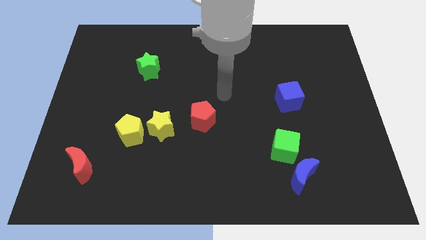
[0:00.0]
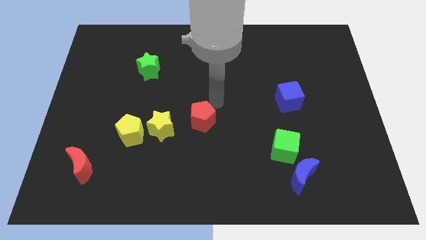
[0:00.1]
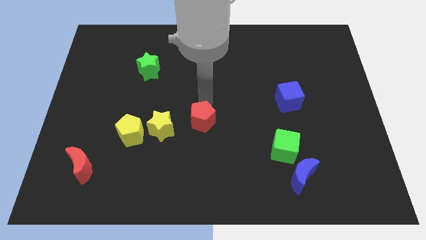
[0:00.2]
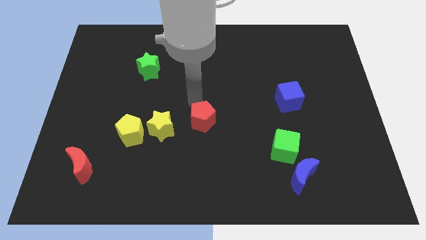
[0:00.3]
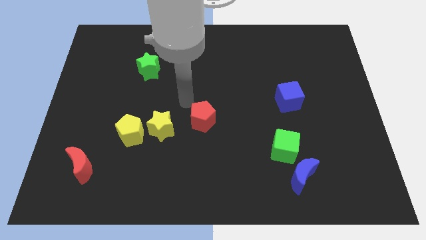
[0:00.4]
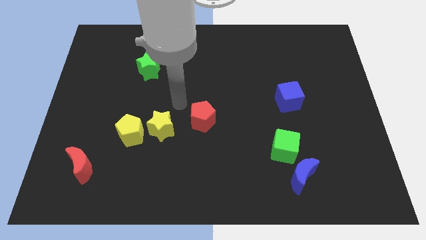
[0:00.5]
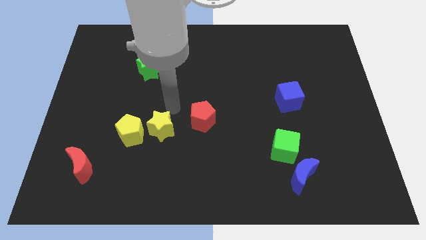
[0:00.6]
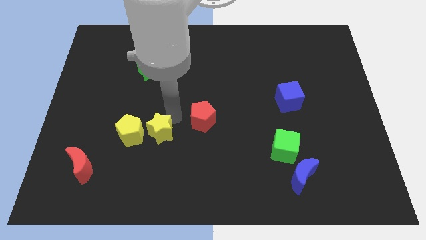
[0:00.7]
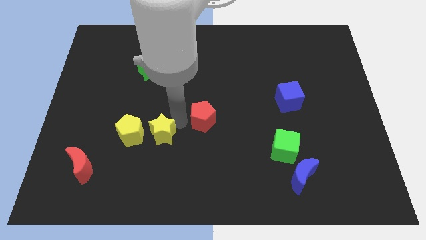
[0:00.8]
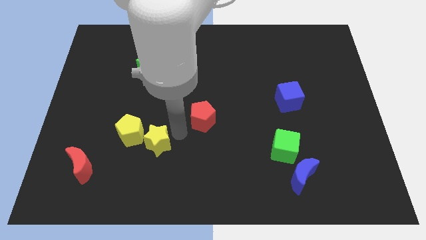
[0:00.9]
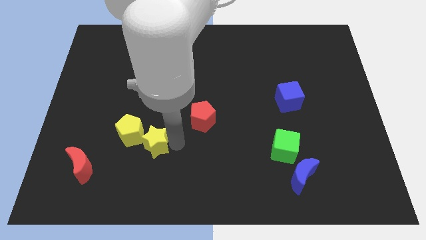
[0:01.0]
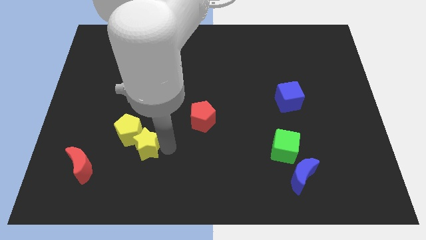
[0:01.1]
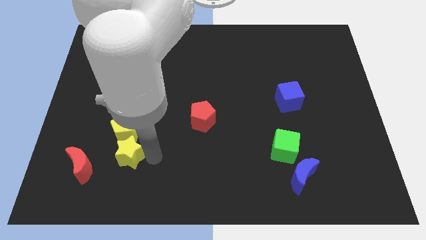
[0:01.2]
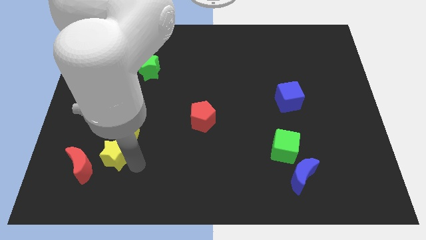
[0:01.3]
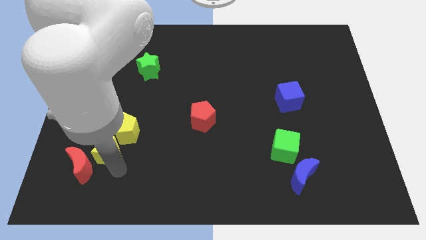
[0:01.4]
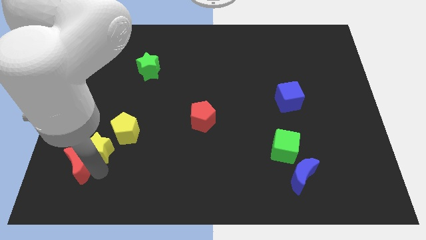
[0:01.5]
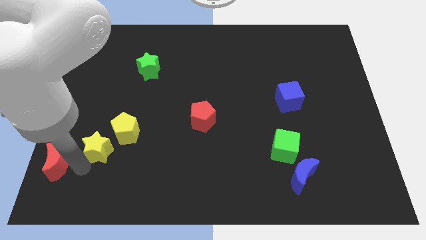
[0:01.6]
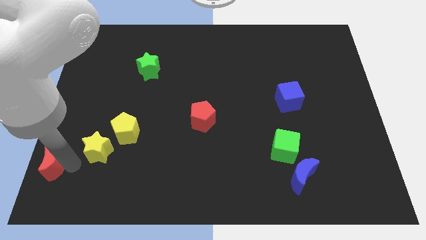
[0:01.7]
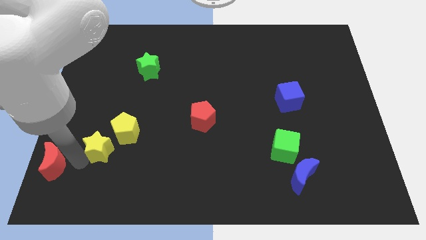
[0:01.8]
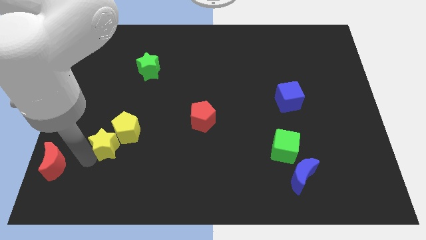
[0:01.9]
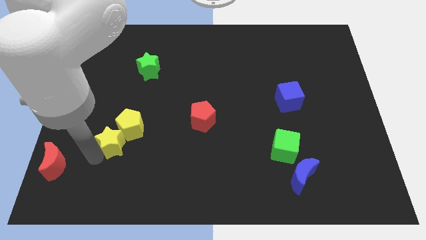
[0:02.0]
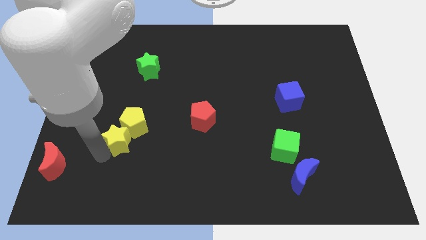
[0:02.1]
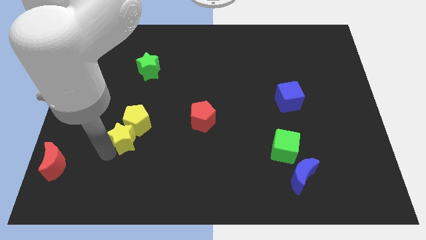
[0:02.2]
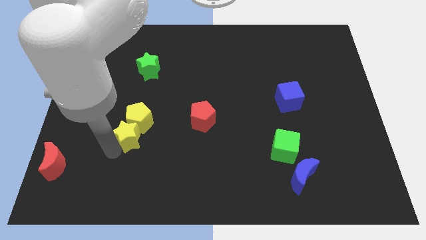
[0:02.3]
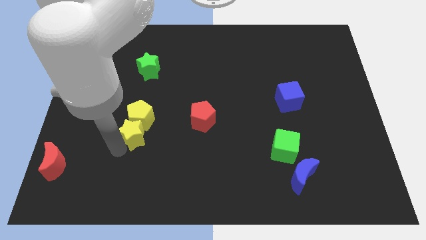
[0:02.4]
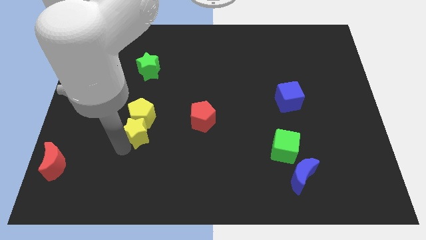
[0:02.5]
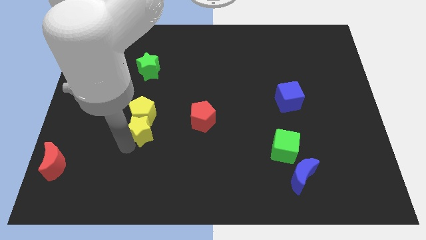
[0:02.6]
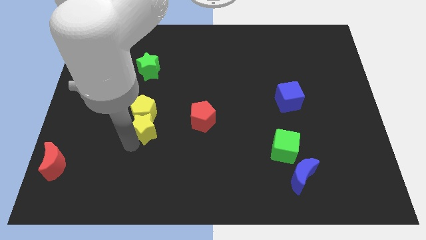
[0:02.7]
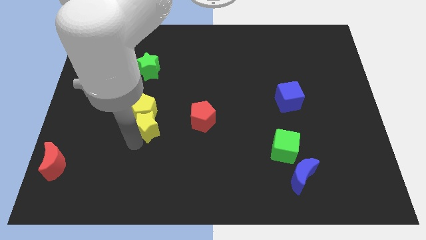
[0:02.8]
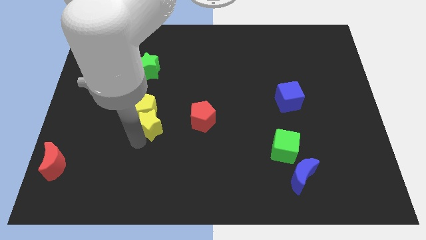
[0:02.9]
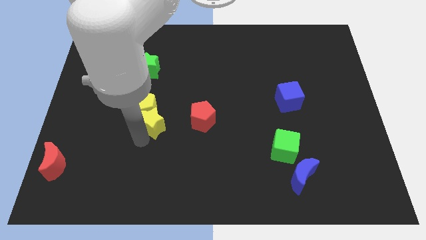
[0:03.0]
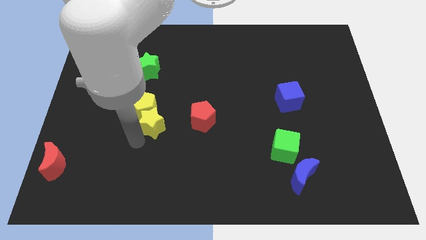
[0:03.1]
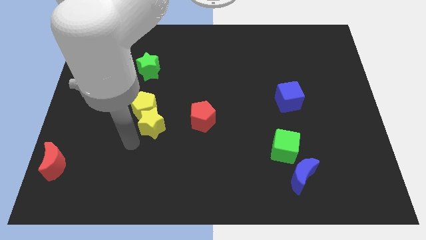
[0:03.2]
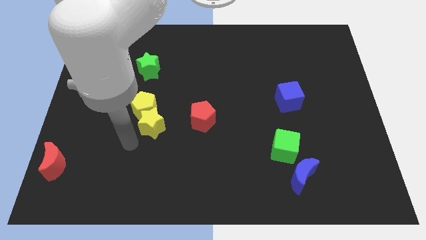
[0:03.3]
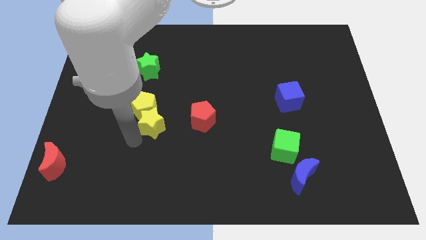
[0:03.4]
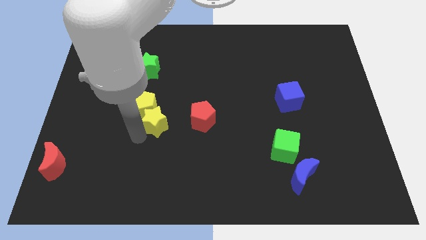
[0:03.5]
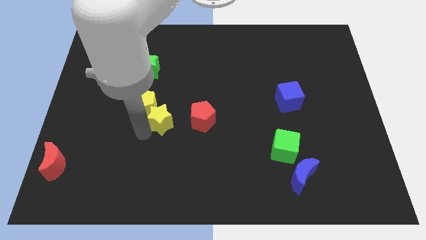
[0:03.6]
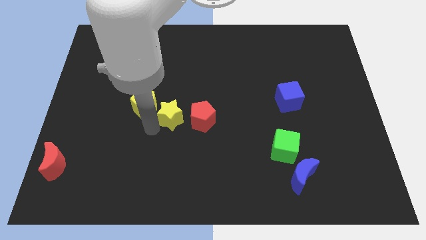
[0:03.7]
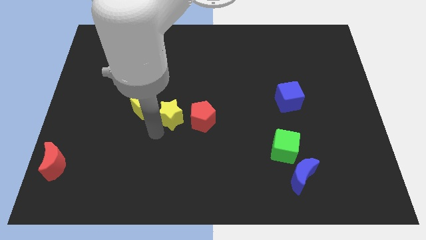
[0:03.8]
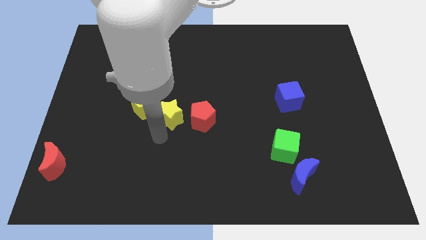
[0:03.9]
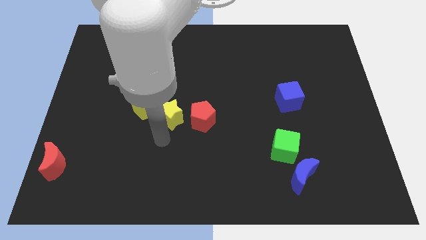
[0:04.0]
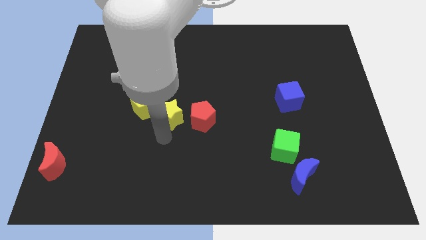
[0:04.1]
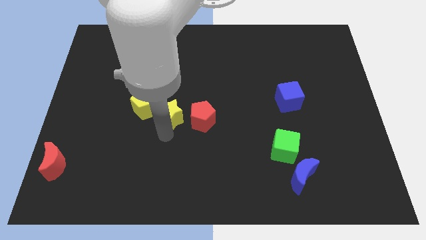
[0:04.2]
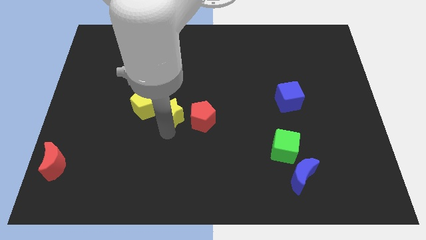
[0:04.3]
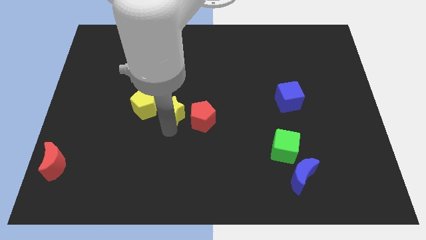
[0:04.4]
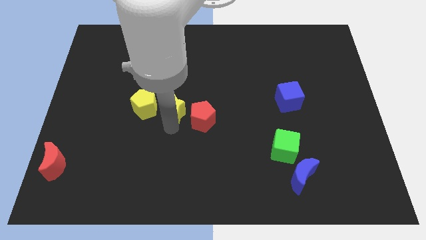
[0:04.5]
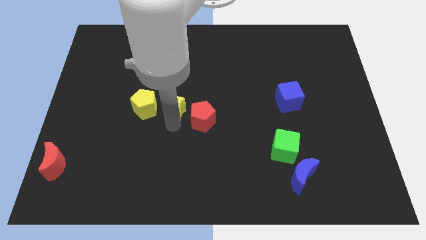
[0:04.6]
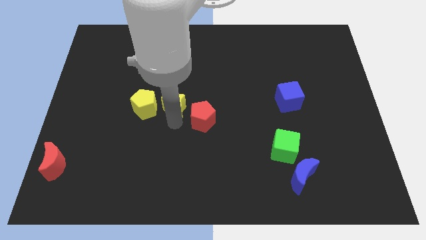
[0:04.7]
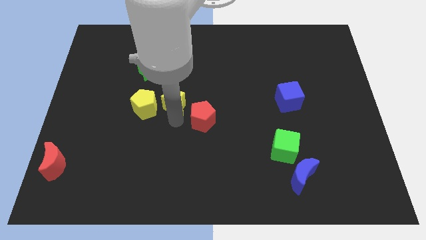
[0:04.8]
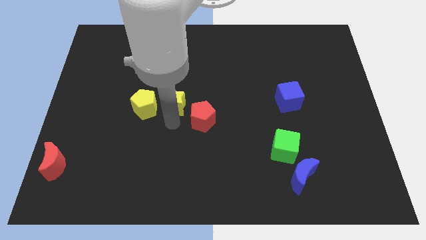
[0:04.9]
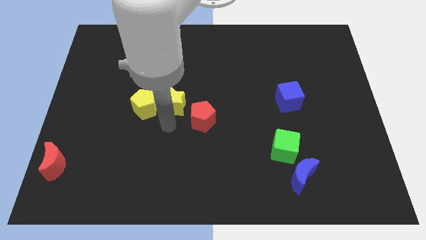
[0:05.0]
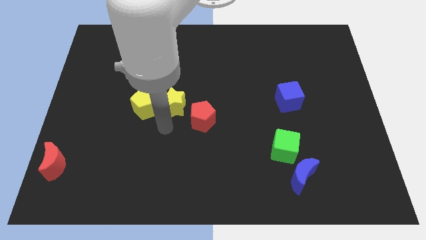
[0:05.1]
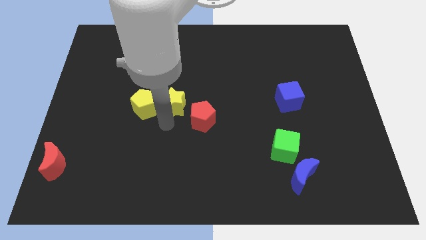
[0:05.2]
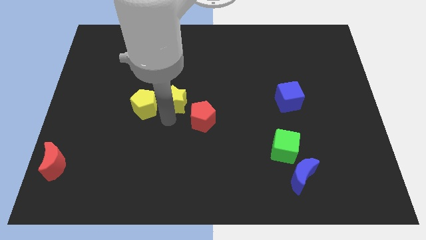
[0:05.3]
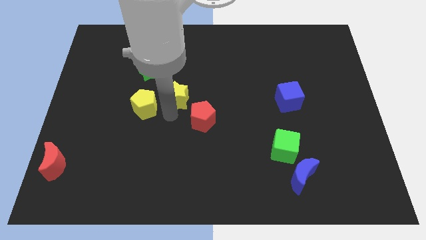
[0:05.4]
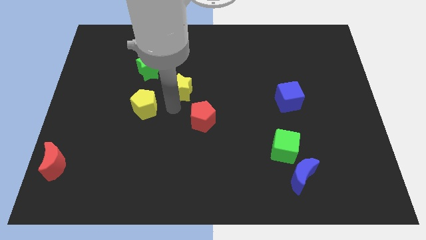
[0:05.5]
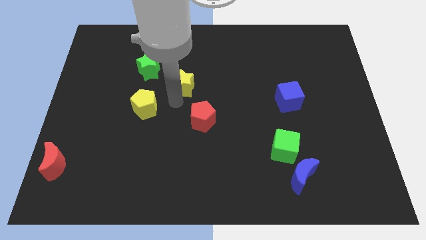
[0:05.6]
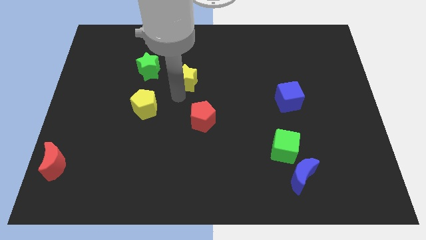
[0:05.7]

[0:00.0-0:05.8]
move the yellow star just right of the green star
